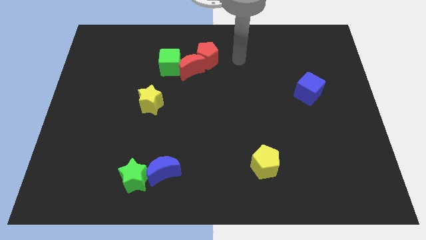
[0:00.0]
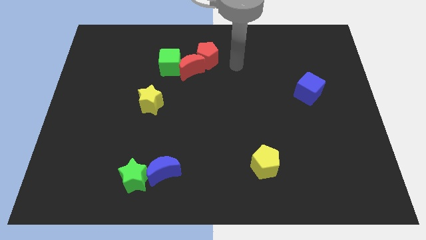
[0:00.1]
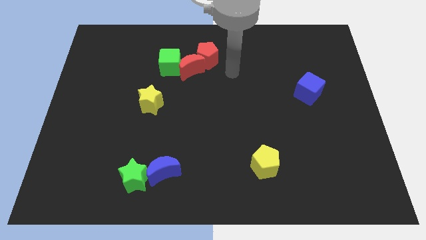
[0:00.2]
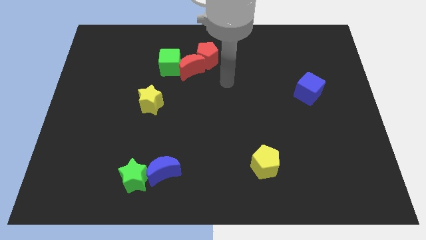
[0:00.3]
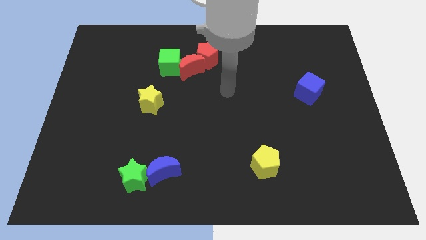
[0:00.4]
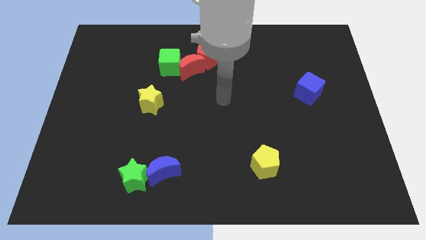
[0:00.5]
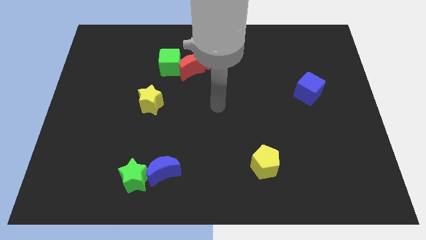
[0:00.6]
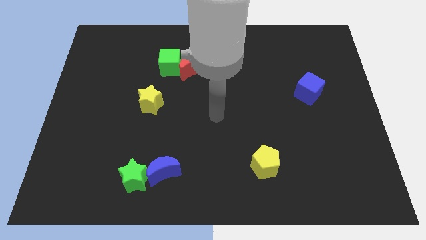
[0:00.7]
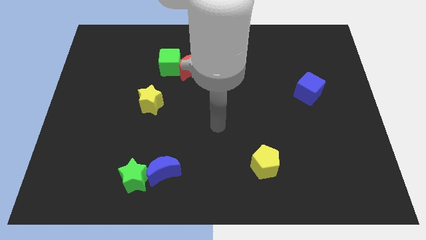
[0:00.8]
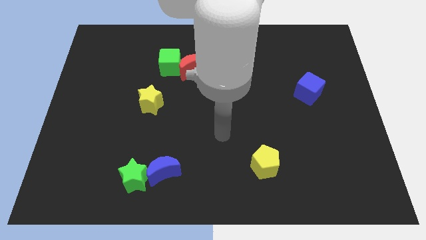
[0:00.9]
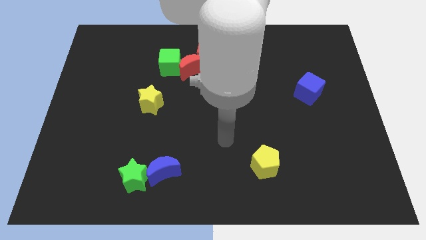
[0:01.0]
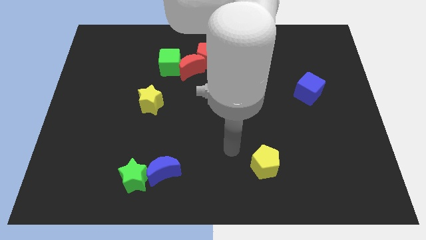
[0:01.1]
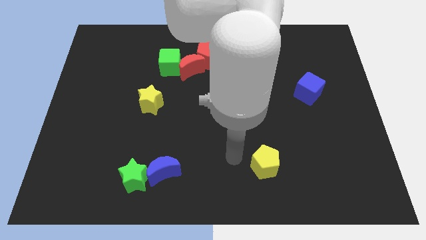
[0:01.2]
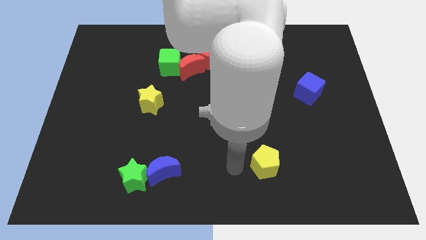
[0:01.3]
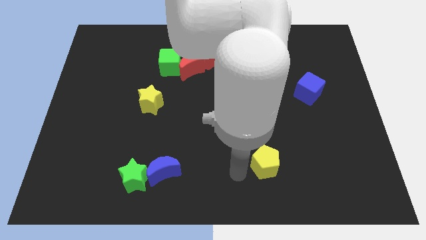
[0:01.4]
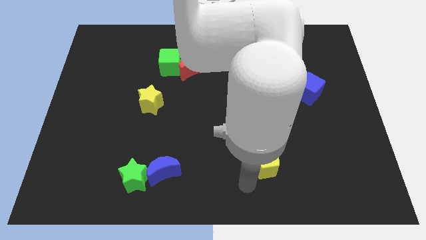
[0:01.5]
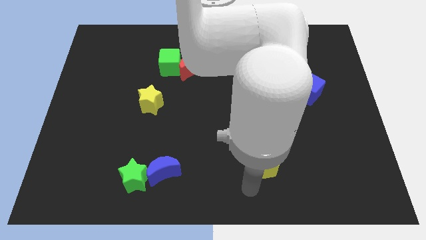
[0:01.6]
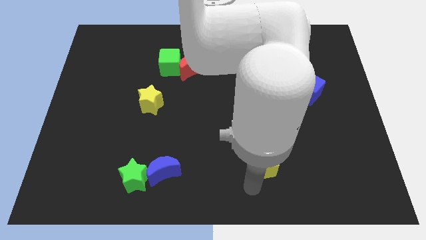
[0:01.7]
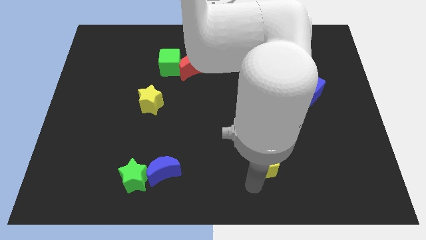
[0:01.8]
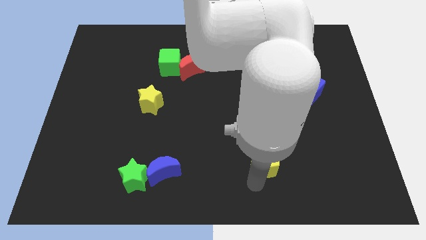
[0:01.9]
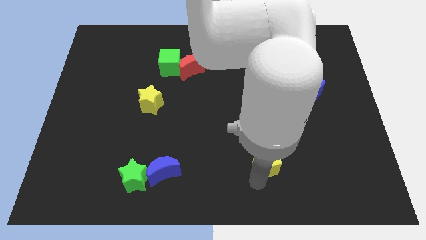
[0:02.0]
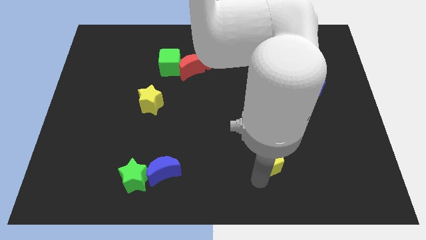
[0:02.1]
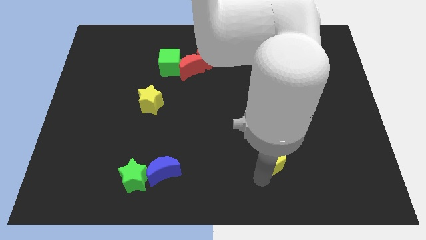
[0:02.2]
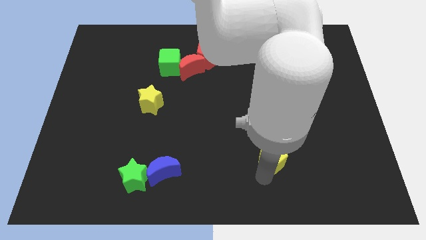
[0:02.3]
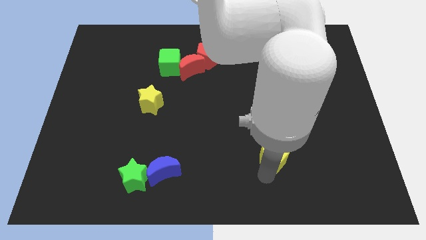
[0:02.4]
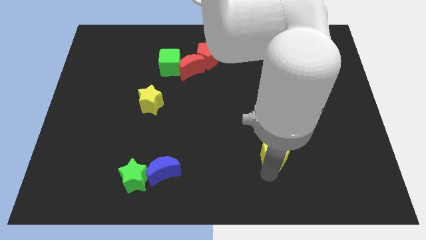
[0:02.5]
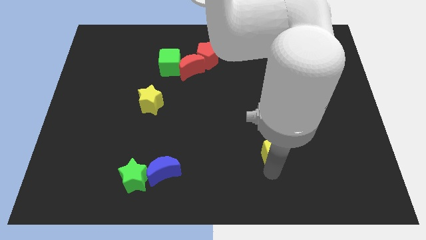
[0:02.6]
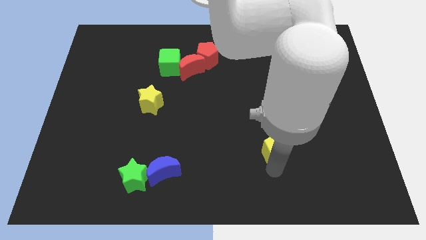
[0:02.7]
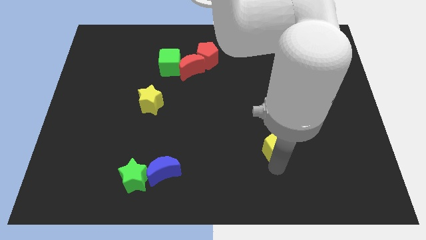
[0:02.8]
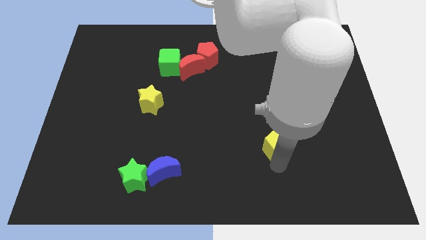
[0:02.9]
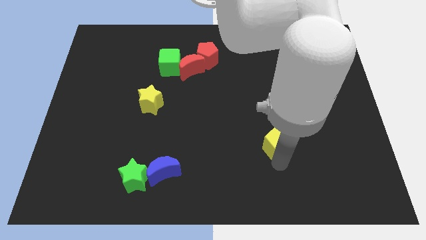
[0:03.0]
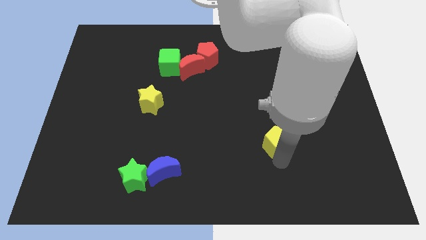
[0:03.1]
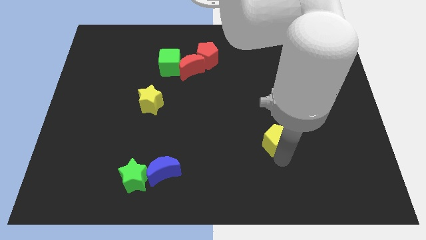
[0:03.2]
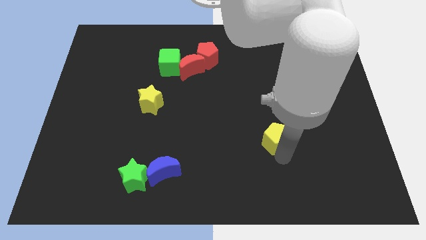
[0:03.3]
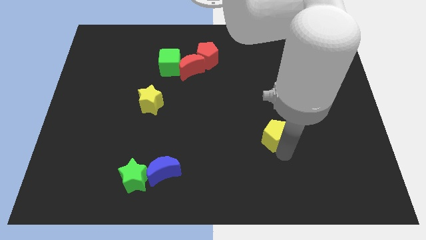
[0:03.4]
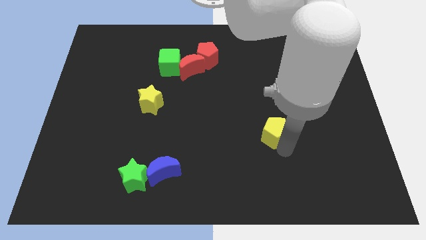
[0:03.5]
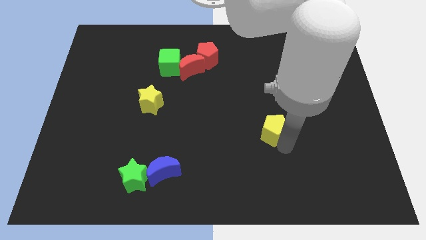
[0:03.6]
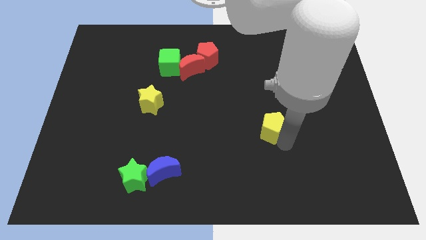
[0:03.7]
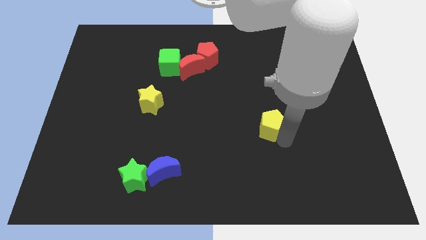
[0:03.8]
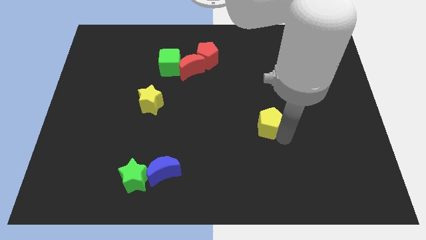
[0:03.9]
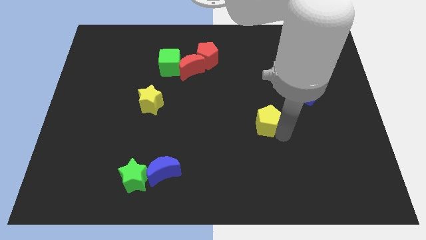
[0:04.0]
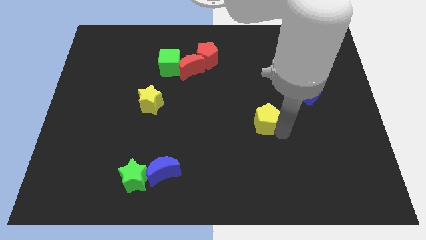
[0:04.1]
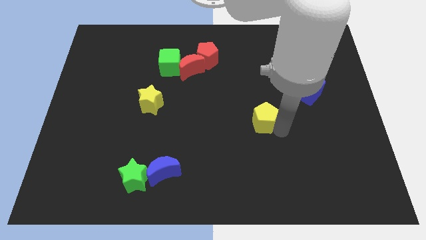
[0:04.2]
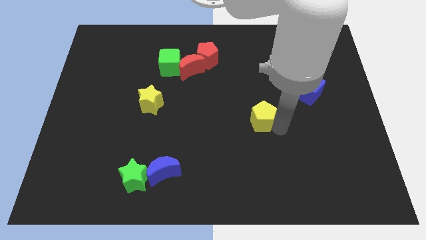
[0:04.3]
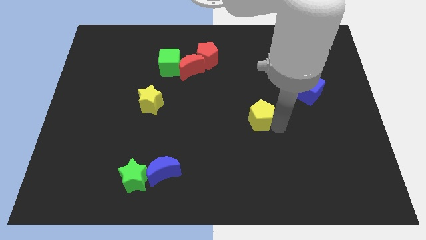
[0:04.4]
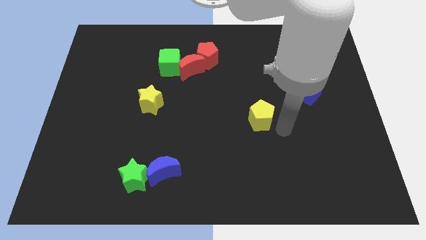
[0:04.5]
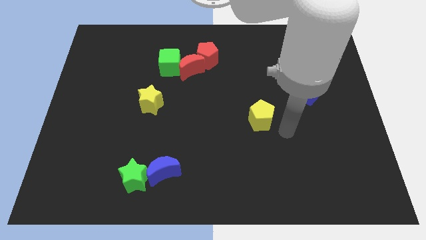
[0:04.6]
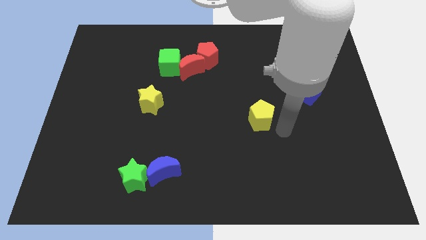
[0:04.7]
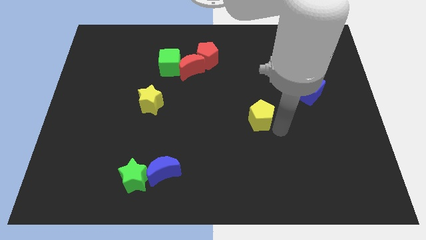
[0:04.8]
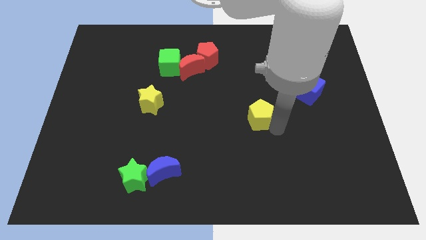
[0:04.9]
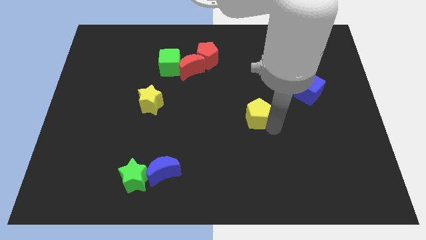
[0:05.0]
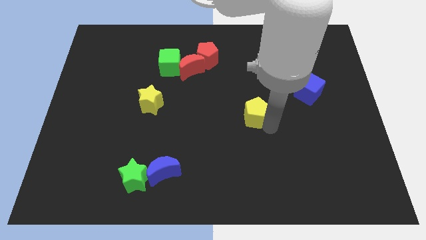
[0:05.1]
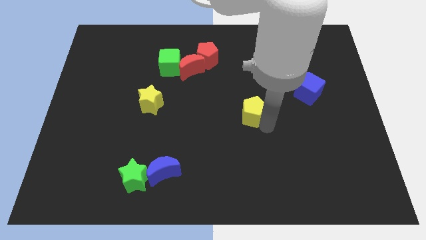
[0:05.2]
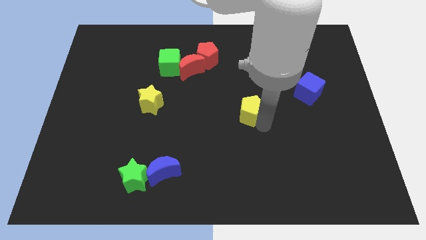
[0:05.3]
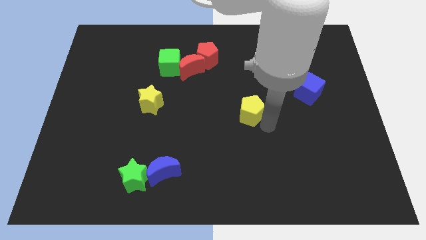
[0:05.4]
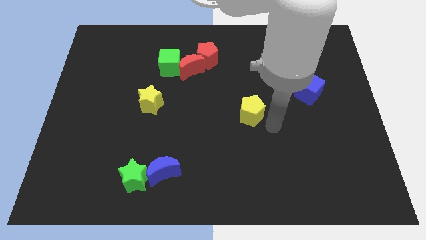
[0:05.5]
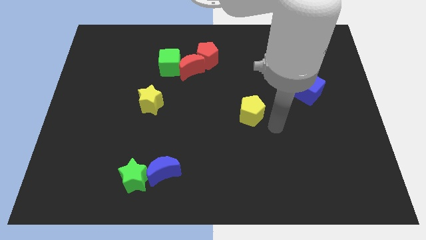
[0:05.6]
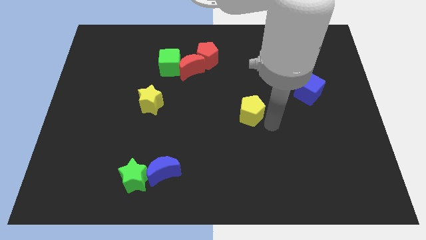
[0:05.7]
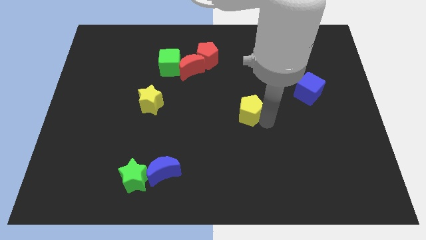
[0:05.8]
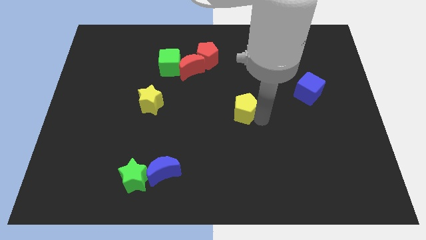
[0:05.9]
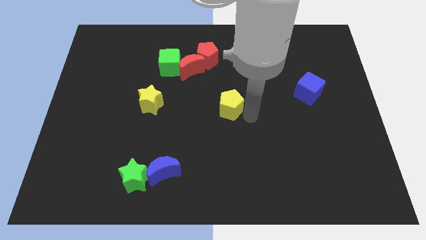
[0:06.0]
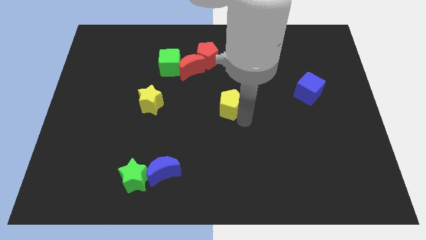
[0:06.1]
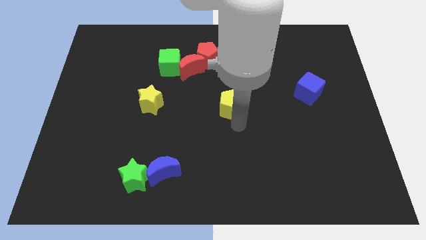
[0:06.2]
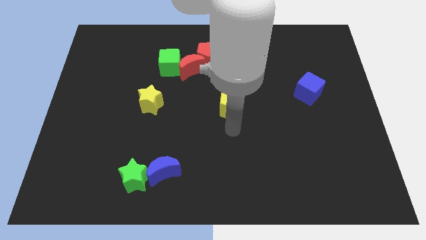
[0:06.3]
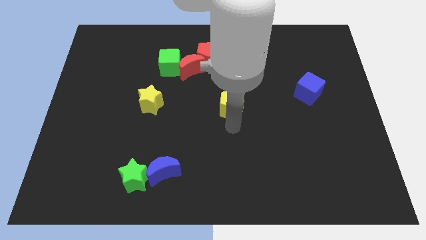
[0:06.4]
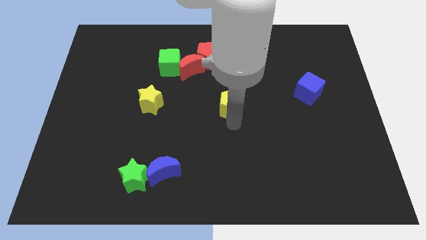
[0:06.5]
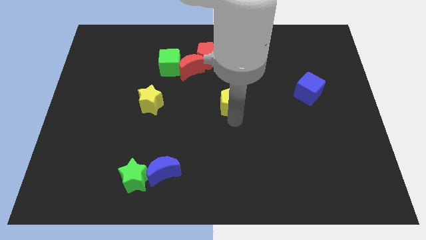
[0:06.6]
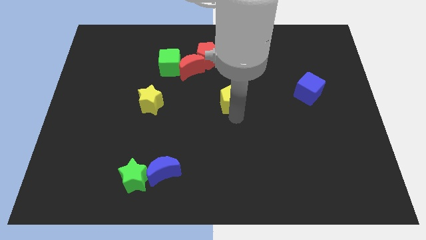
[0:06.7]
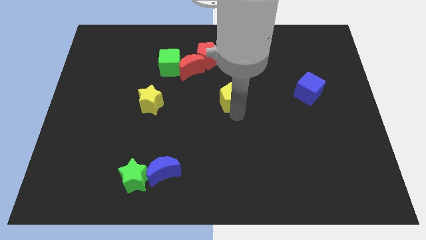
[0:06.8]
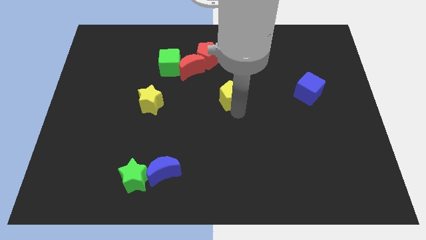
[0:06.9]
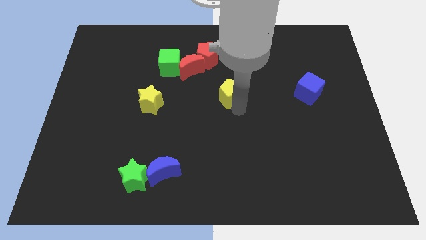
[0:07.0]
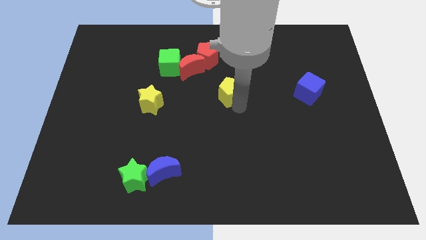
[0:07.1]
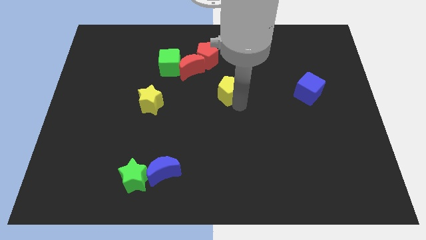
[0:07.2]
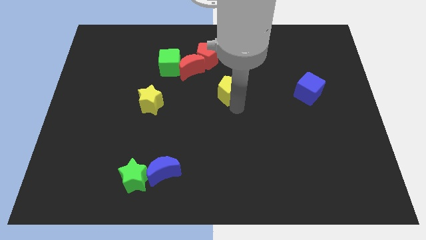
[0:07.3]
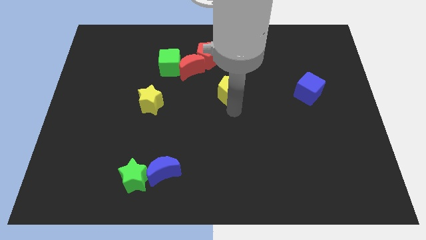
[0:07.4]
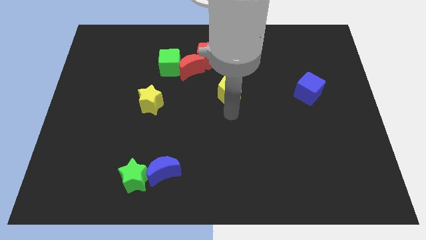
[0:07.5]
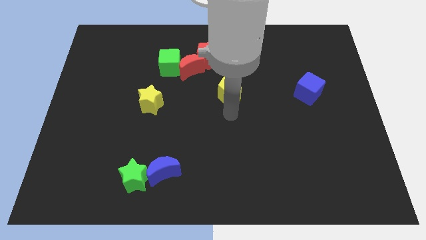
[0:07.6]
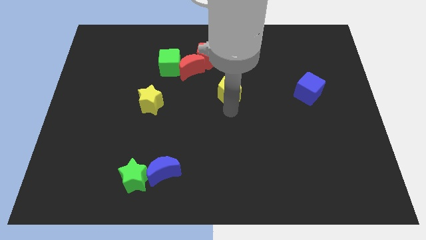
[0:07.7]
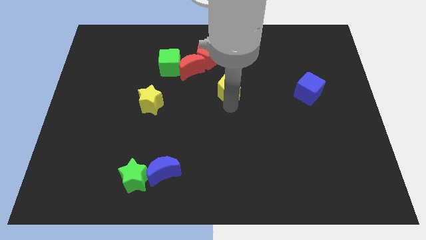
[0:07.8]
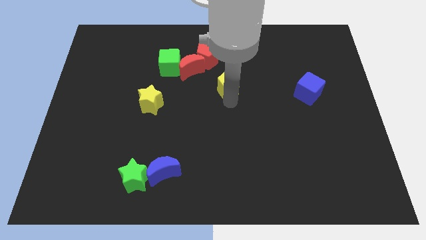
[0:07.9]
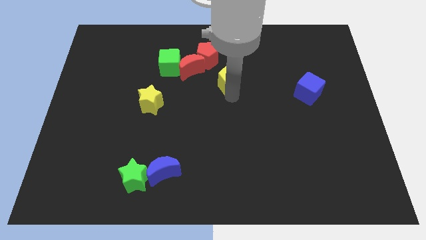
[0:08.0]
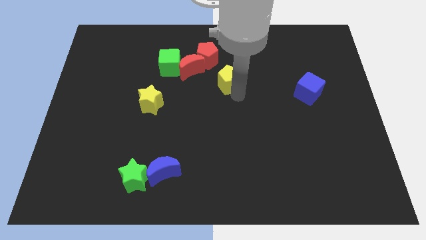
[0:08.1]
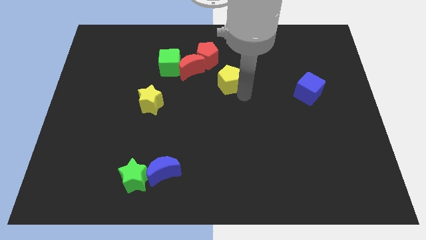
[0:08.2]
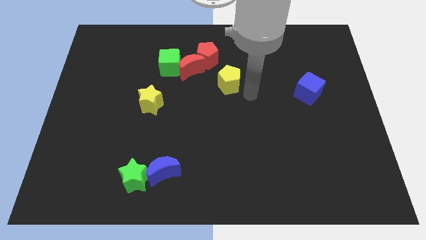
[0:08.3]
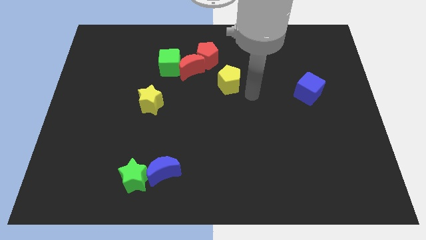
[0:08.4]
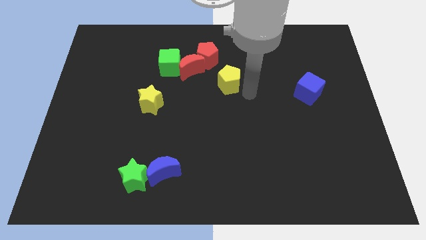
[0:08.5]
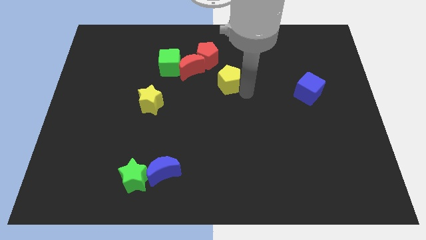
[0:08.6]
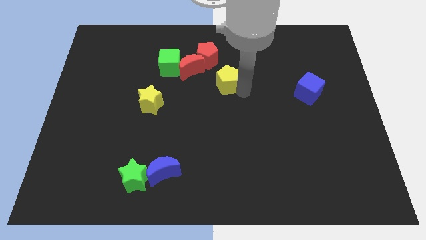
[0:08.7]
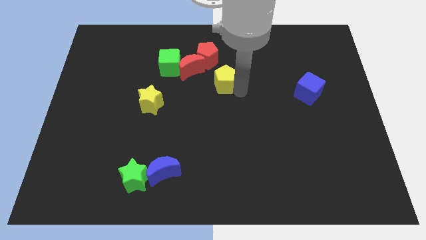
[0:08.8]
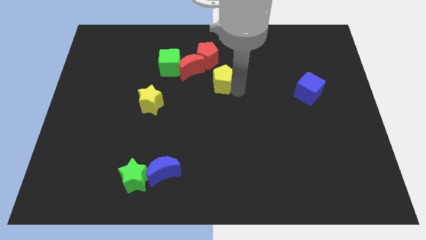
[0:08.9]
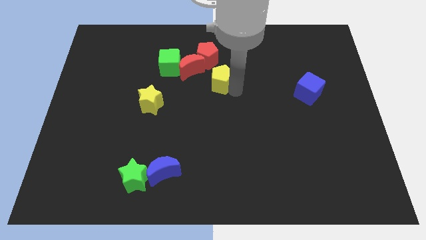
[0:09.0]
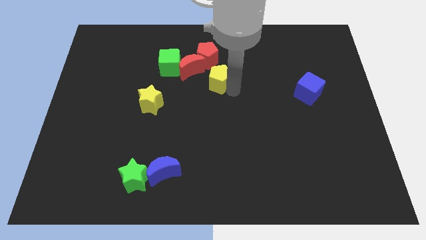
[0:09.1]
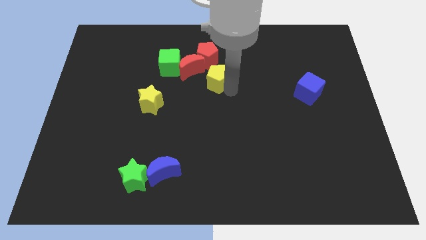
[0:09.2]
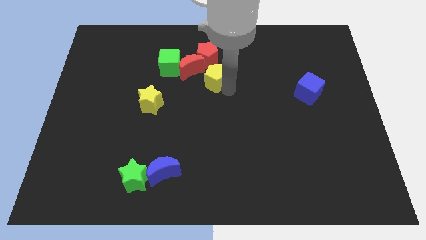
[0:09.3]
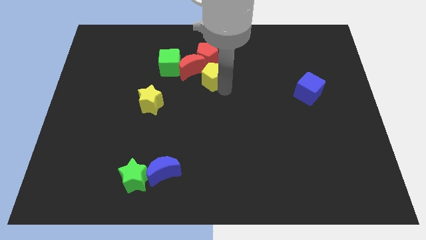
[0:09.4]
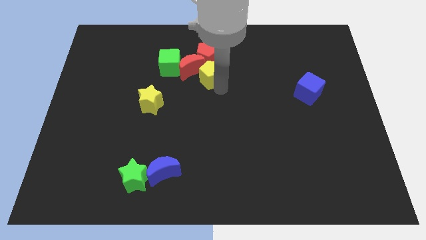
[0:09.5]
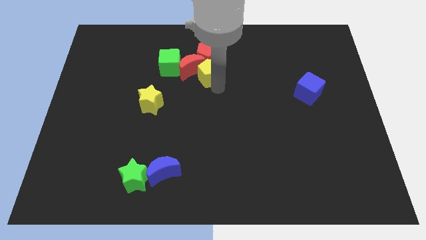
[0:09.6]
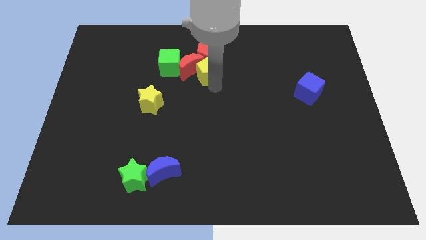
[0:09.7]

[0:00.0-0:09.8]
push the yellow pentagon next to the red pentagon
